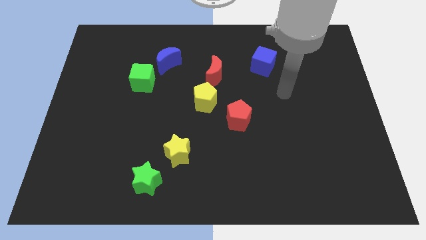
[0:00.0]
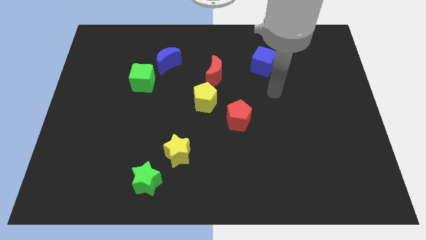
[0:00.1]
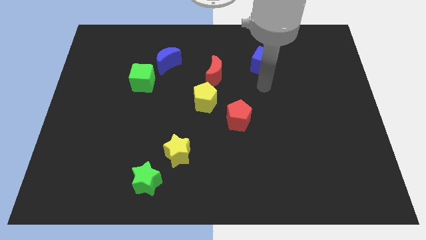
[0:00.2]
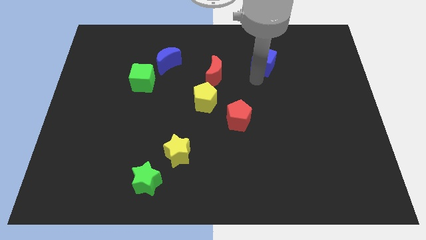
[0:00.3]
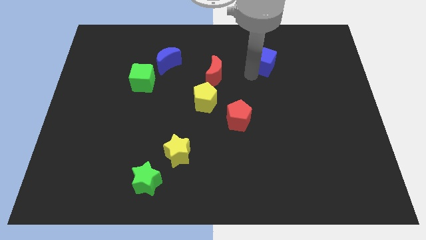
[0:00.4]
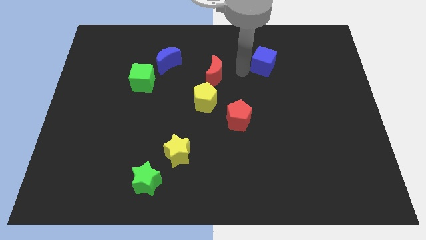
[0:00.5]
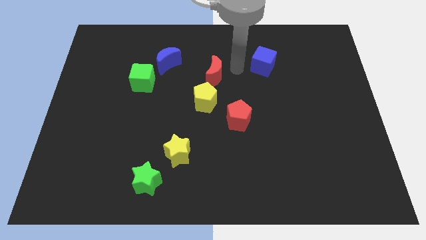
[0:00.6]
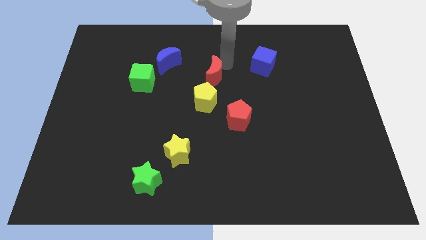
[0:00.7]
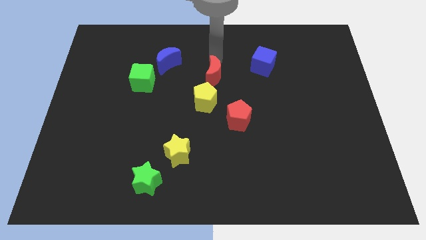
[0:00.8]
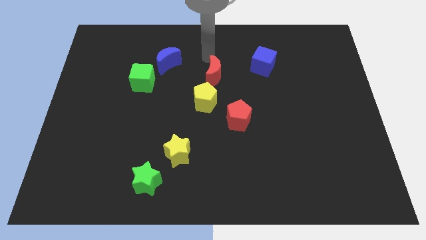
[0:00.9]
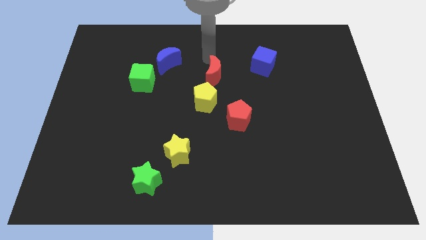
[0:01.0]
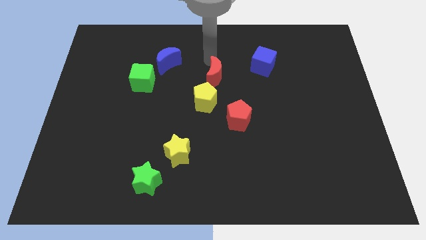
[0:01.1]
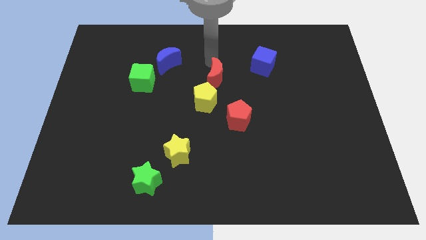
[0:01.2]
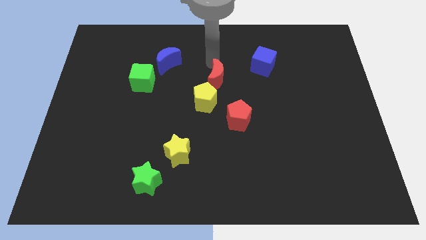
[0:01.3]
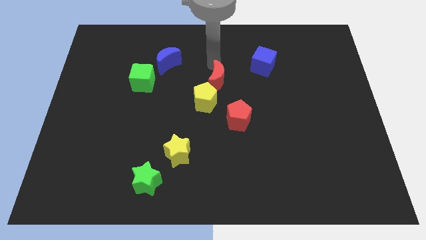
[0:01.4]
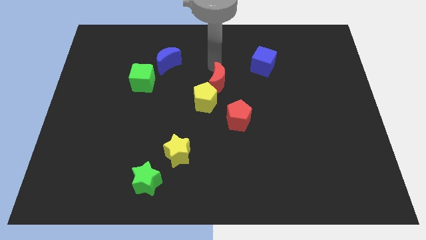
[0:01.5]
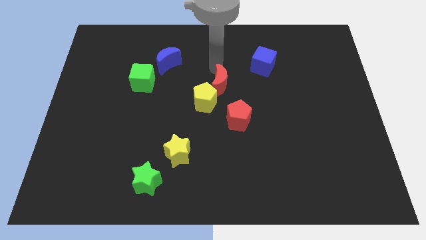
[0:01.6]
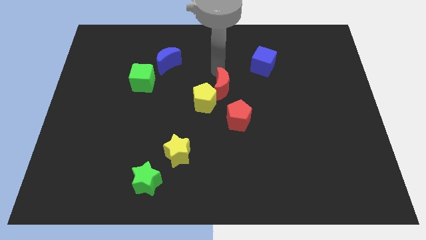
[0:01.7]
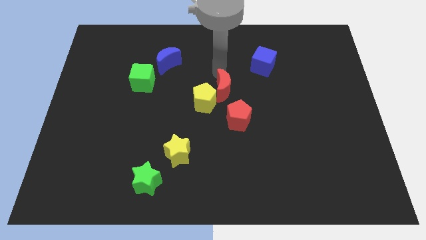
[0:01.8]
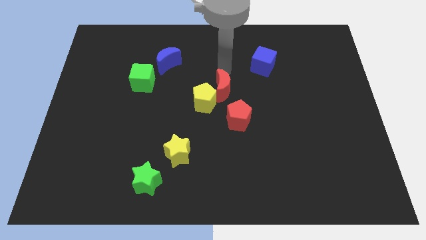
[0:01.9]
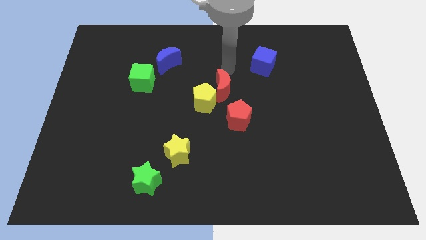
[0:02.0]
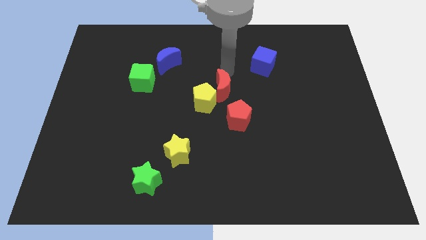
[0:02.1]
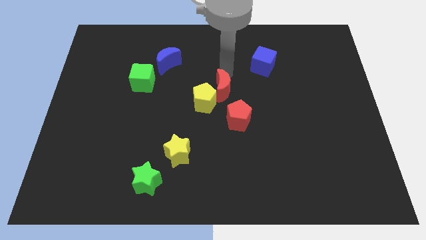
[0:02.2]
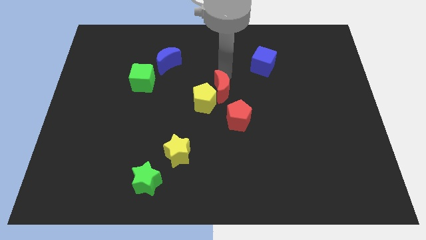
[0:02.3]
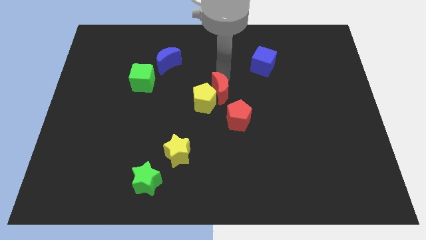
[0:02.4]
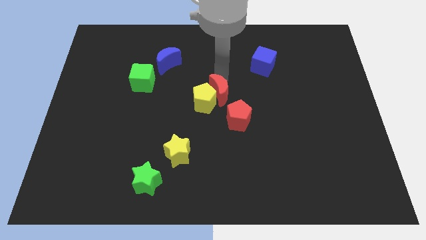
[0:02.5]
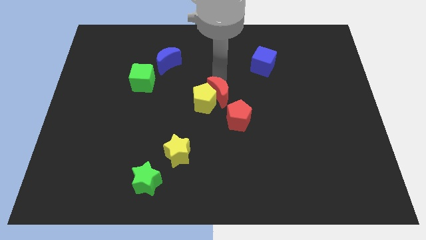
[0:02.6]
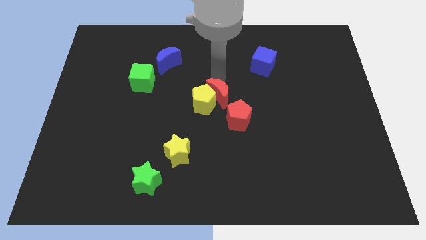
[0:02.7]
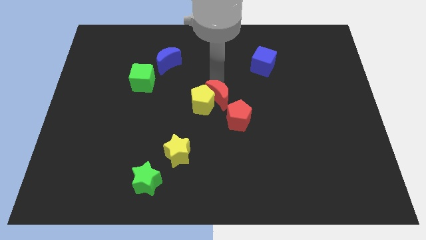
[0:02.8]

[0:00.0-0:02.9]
slide the red moon down slightly

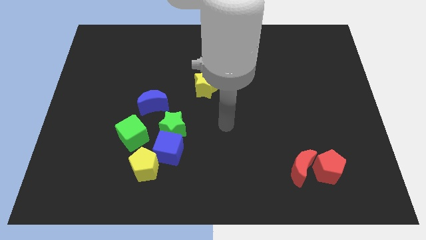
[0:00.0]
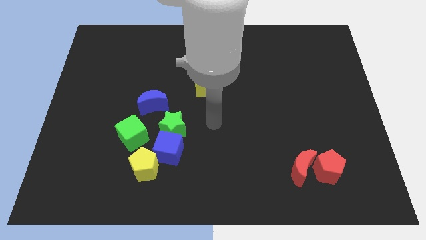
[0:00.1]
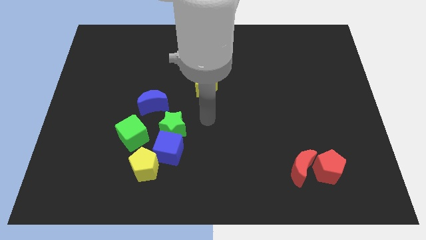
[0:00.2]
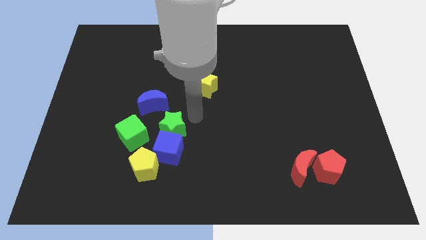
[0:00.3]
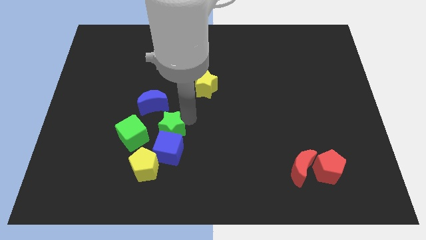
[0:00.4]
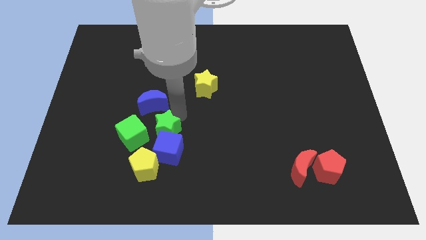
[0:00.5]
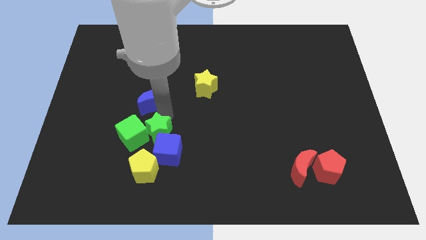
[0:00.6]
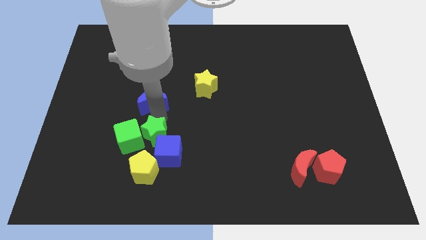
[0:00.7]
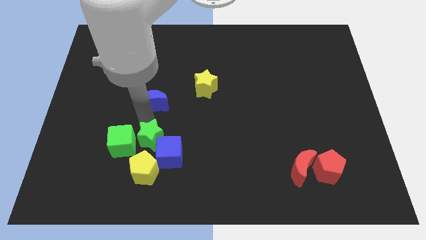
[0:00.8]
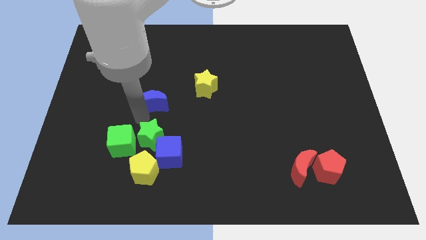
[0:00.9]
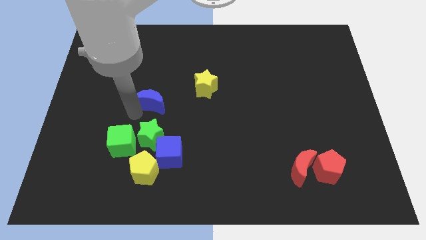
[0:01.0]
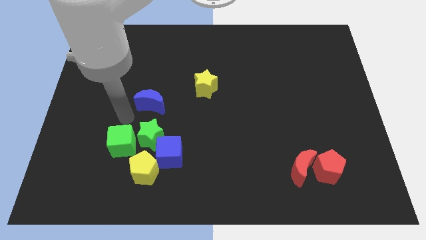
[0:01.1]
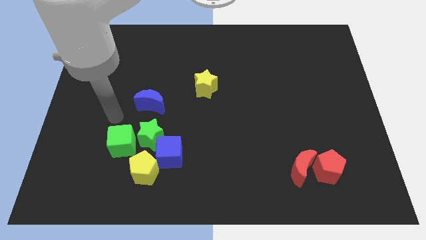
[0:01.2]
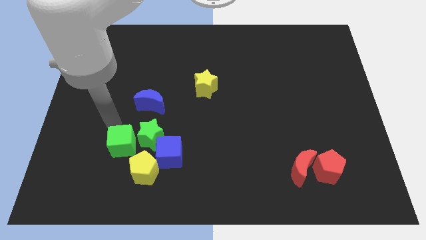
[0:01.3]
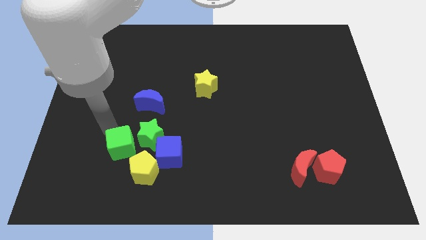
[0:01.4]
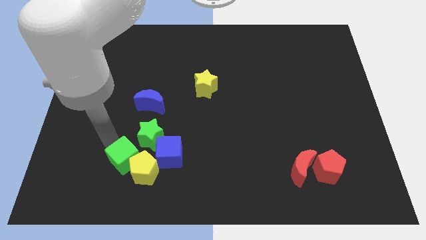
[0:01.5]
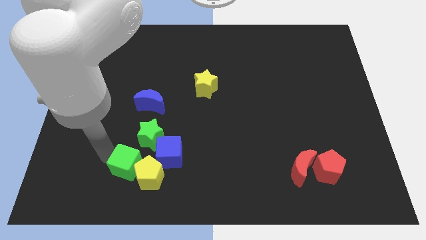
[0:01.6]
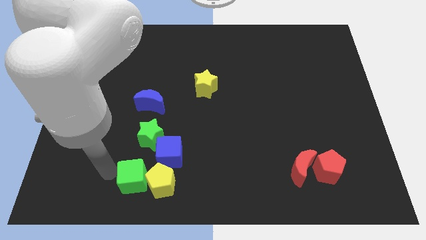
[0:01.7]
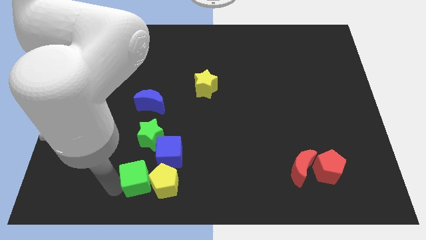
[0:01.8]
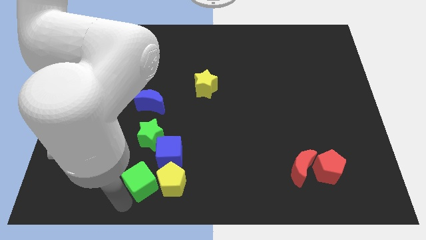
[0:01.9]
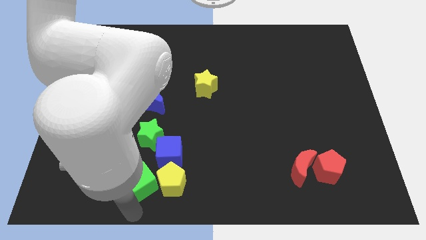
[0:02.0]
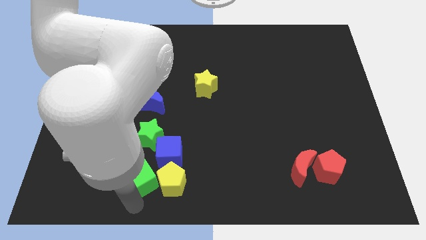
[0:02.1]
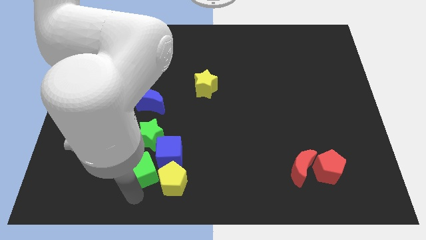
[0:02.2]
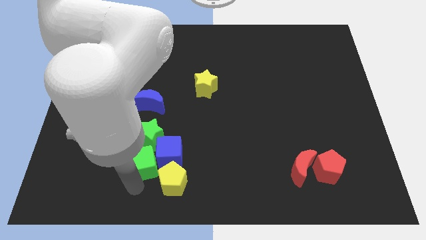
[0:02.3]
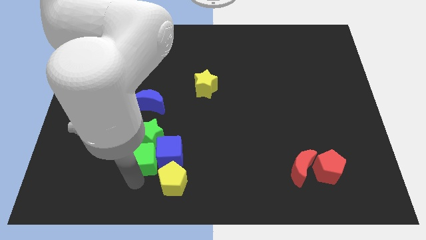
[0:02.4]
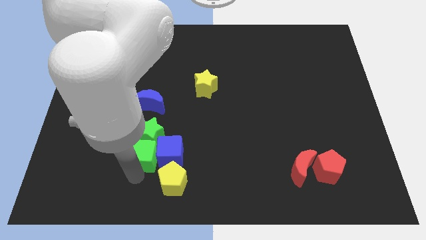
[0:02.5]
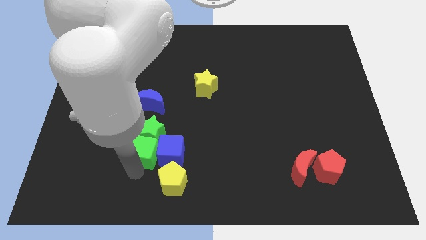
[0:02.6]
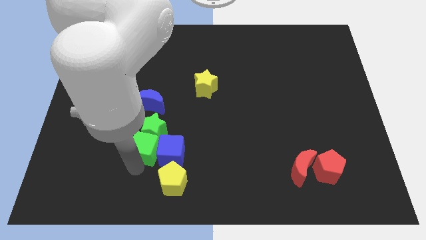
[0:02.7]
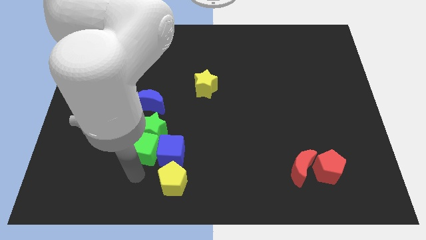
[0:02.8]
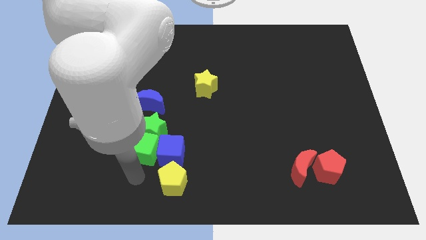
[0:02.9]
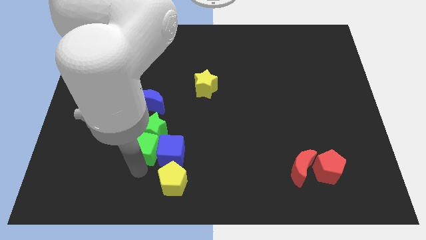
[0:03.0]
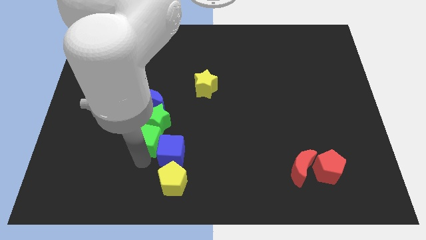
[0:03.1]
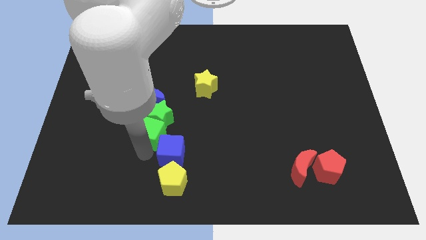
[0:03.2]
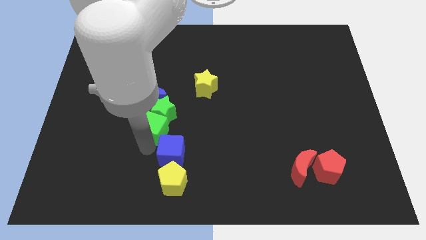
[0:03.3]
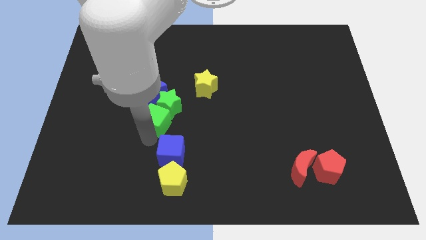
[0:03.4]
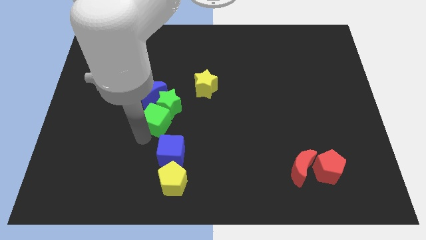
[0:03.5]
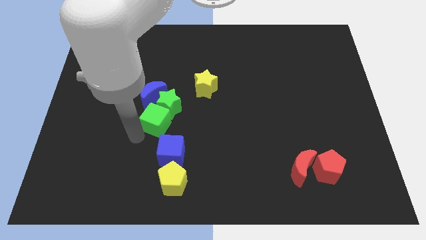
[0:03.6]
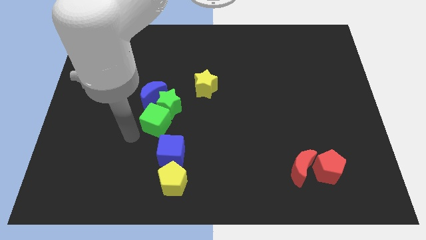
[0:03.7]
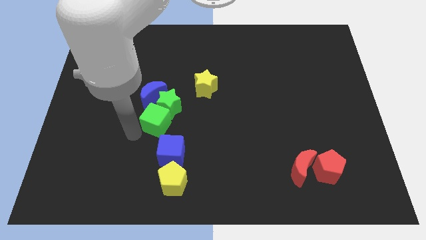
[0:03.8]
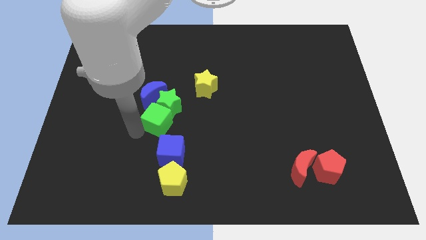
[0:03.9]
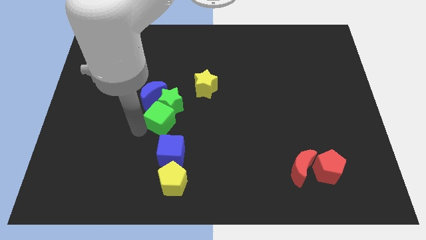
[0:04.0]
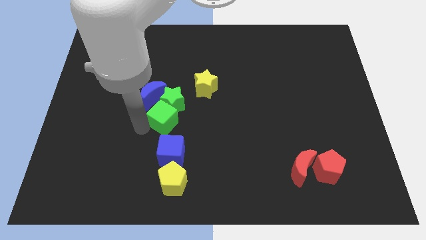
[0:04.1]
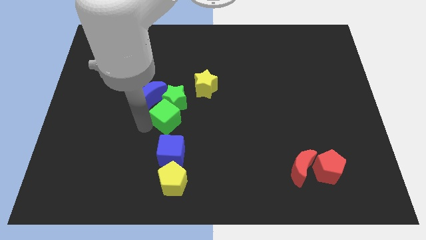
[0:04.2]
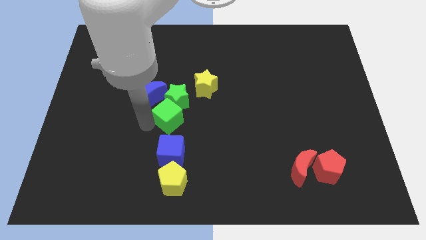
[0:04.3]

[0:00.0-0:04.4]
slide the green cube right a little

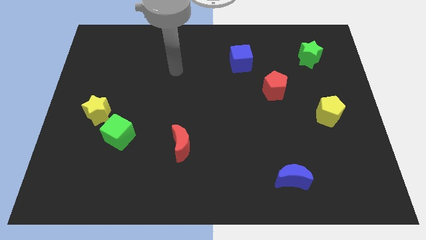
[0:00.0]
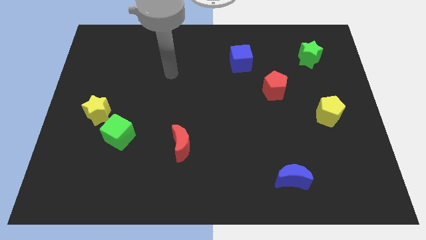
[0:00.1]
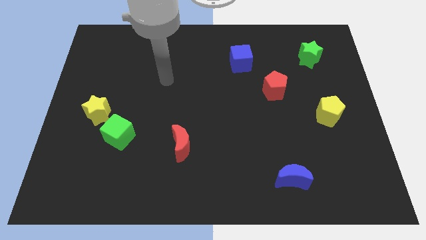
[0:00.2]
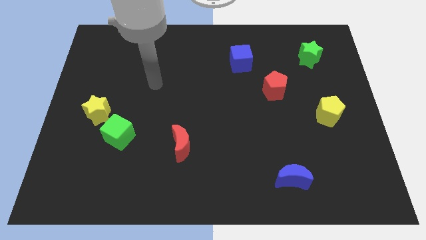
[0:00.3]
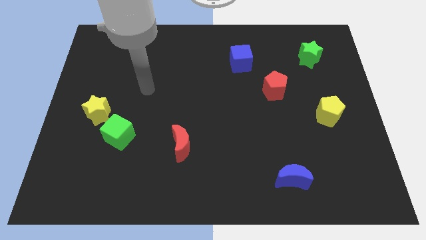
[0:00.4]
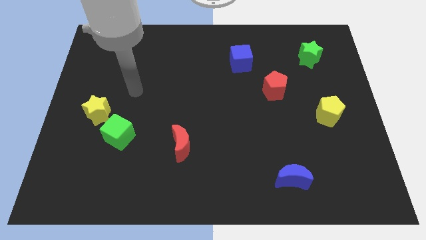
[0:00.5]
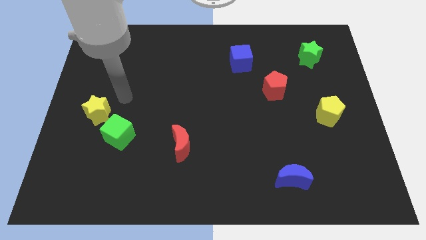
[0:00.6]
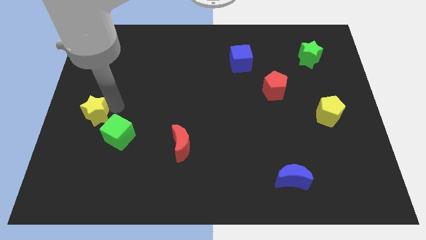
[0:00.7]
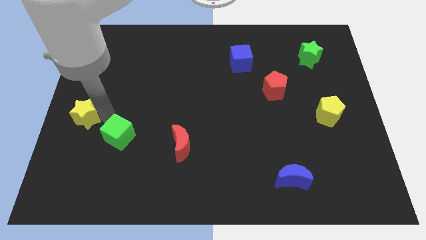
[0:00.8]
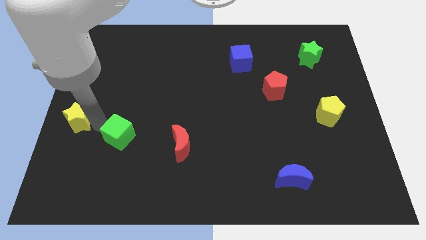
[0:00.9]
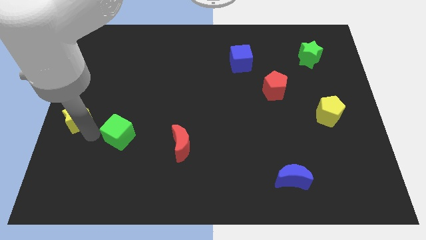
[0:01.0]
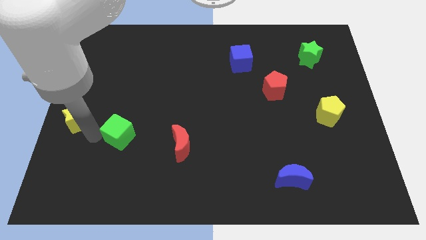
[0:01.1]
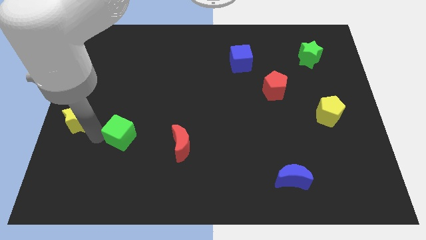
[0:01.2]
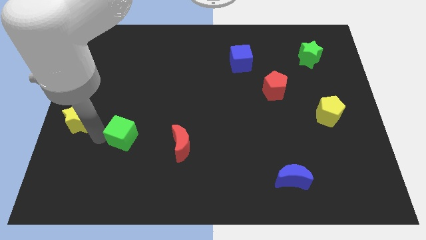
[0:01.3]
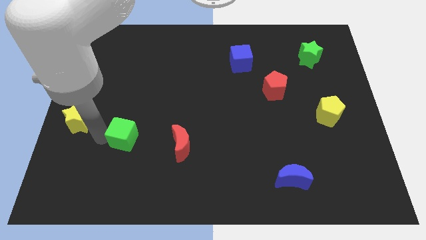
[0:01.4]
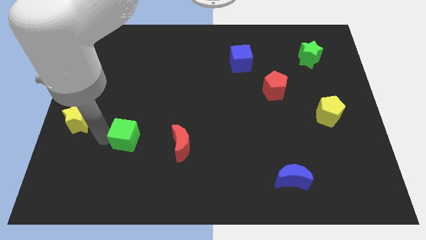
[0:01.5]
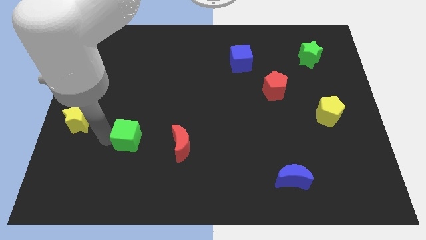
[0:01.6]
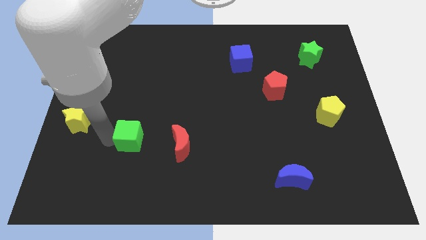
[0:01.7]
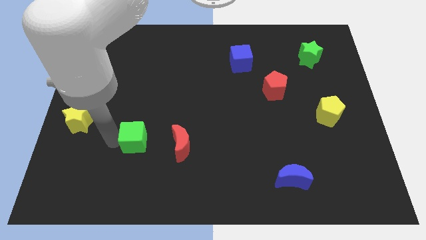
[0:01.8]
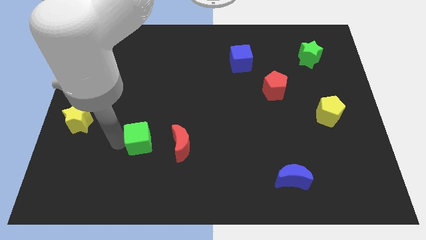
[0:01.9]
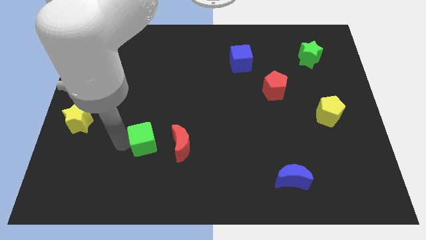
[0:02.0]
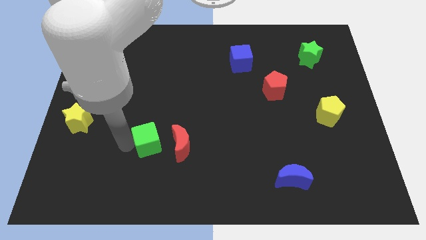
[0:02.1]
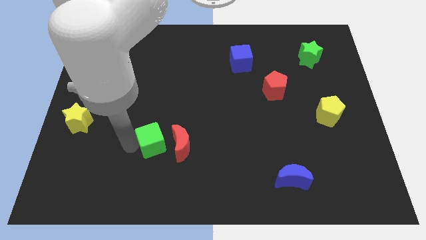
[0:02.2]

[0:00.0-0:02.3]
slightly push the green cube right
